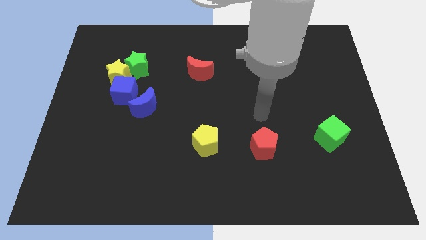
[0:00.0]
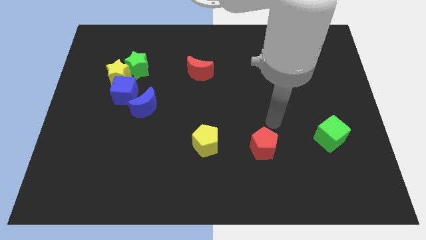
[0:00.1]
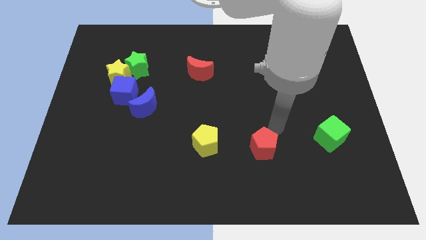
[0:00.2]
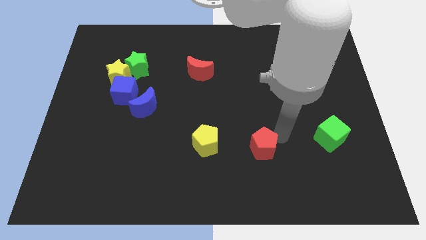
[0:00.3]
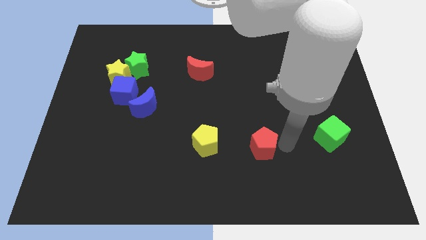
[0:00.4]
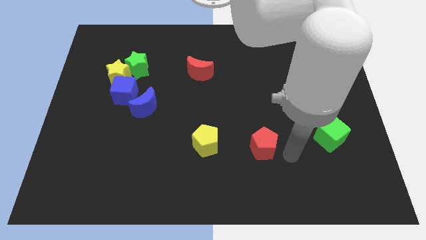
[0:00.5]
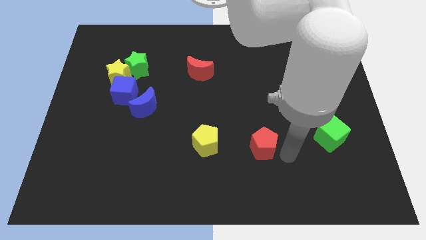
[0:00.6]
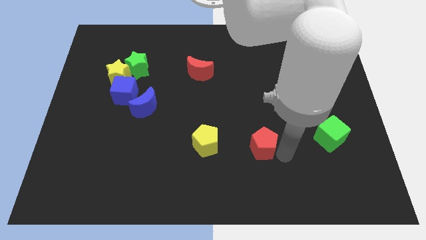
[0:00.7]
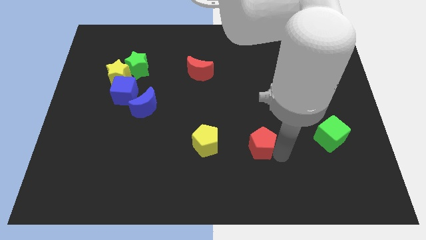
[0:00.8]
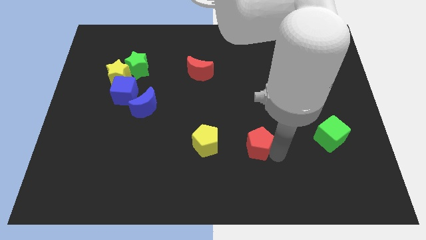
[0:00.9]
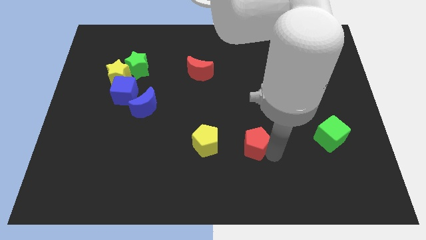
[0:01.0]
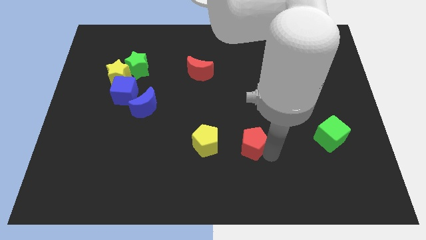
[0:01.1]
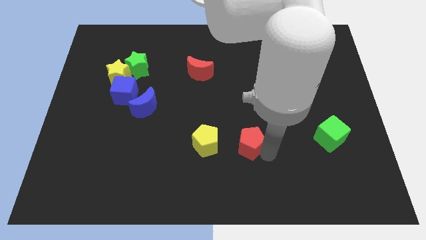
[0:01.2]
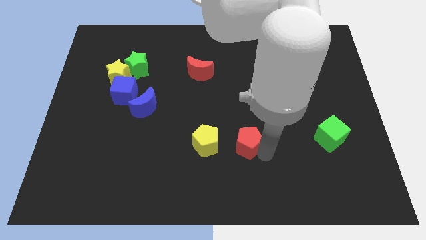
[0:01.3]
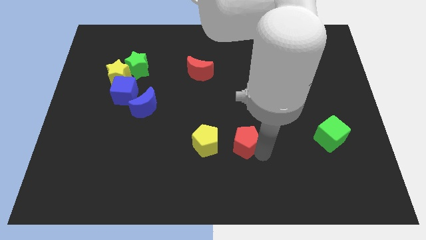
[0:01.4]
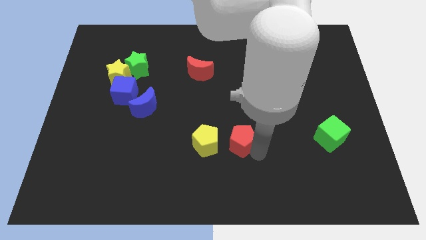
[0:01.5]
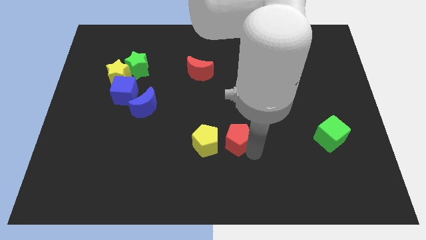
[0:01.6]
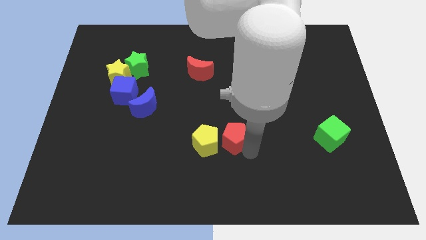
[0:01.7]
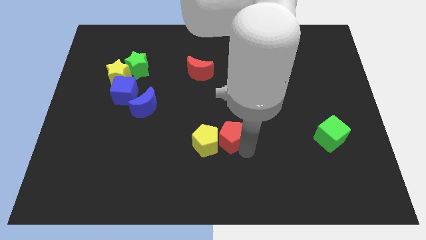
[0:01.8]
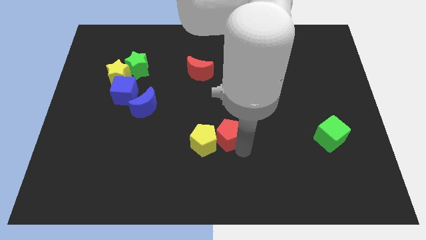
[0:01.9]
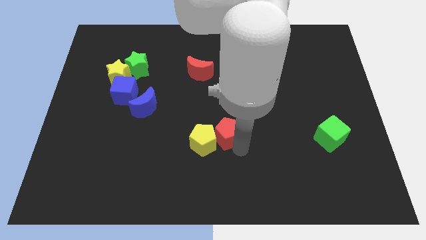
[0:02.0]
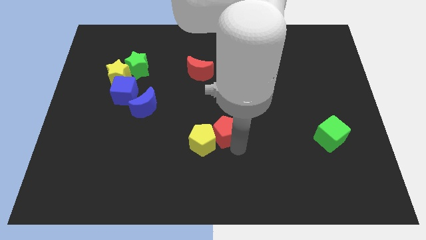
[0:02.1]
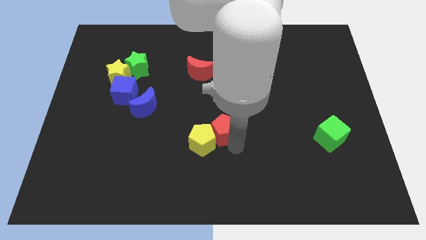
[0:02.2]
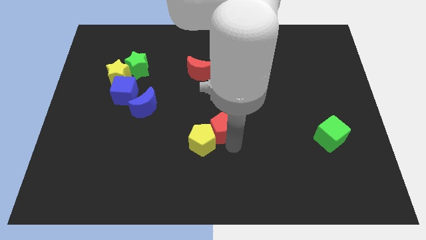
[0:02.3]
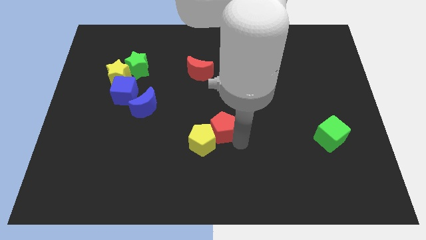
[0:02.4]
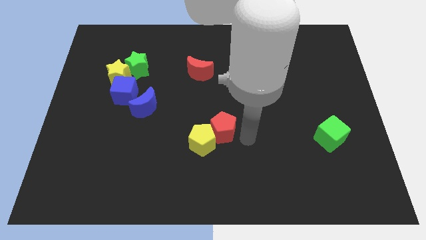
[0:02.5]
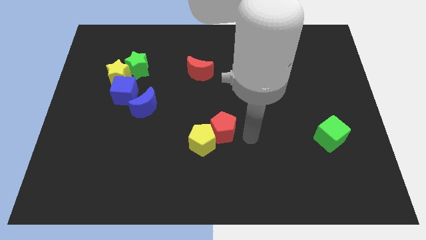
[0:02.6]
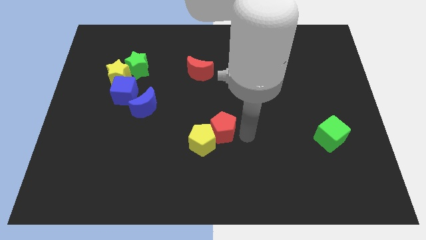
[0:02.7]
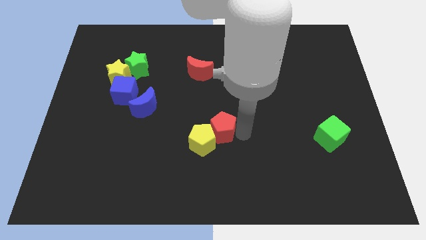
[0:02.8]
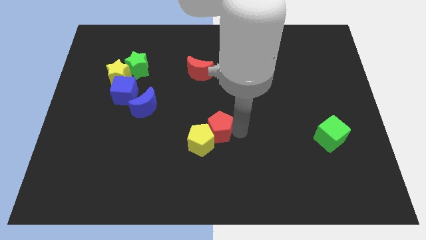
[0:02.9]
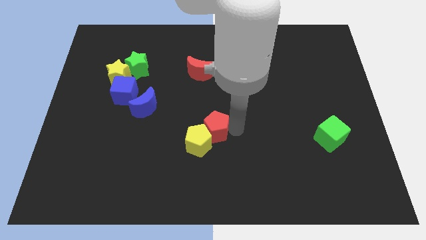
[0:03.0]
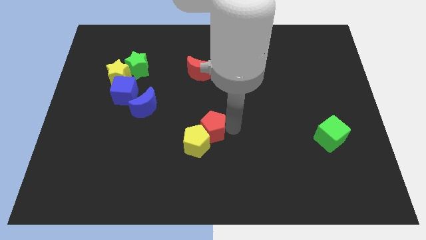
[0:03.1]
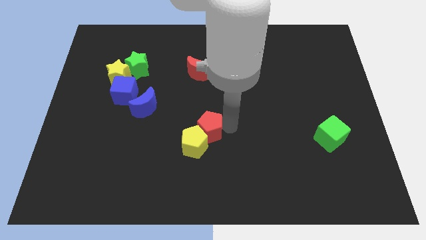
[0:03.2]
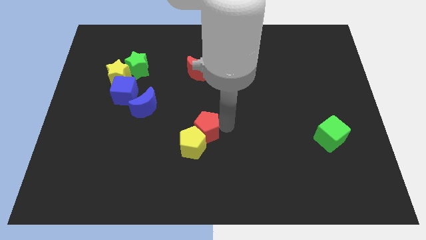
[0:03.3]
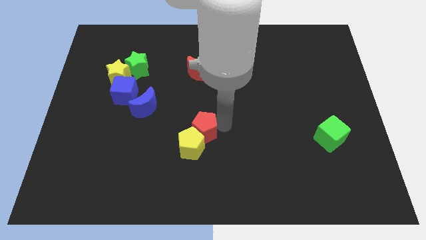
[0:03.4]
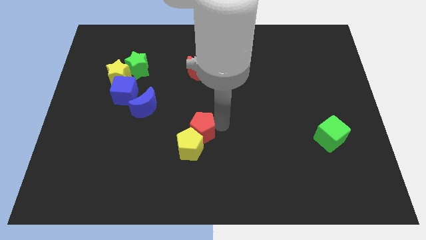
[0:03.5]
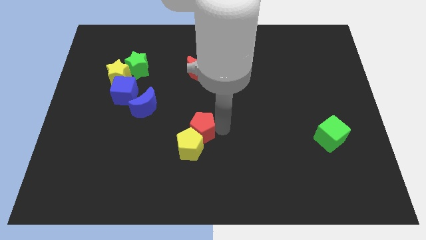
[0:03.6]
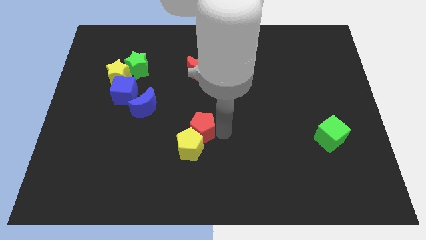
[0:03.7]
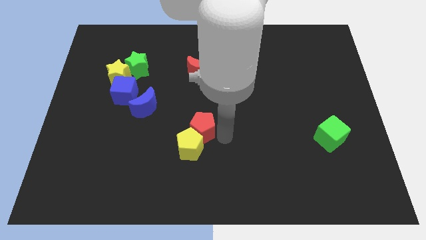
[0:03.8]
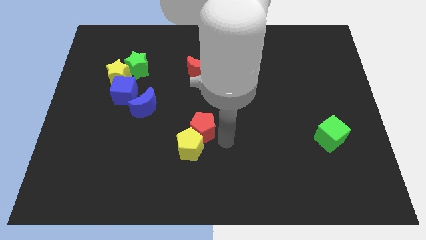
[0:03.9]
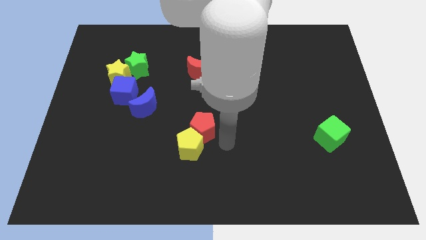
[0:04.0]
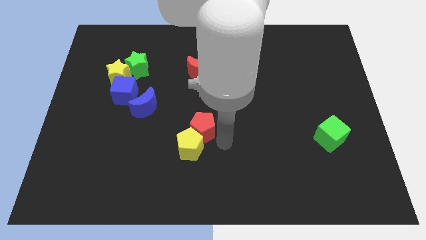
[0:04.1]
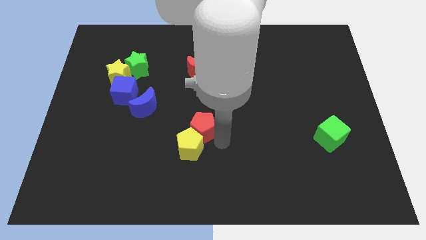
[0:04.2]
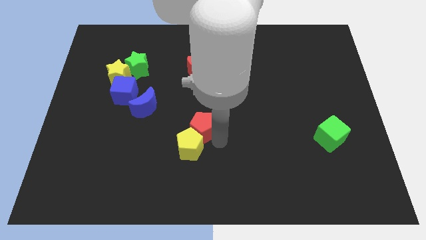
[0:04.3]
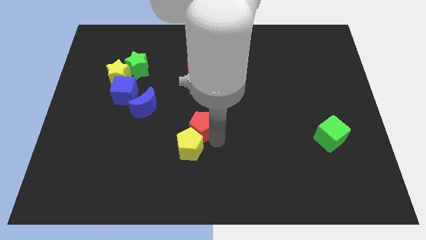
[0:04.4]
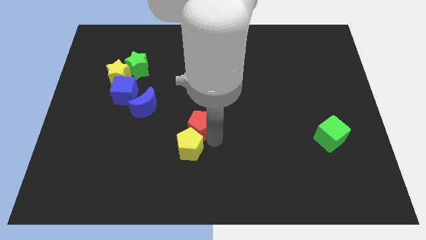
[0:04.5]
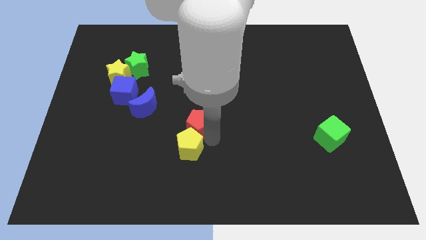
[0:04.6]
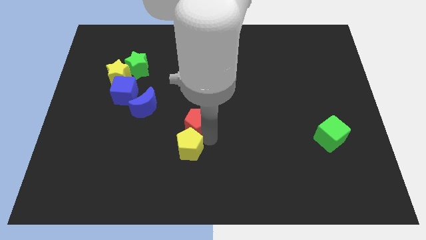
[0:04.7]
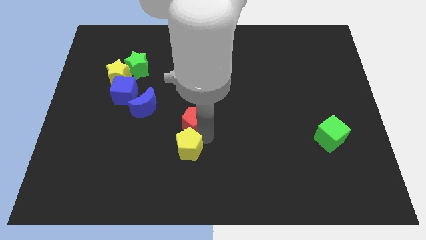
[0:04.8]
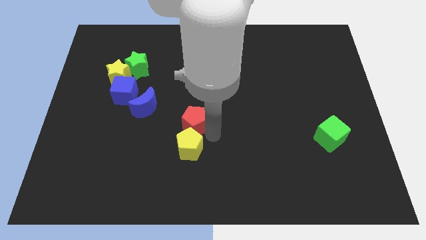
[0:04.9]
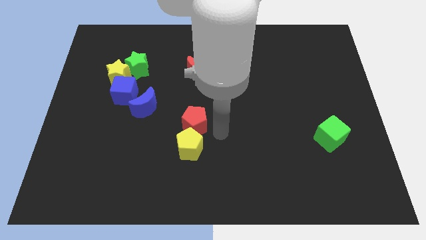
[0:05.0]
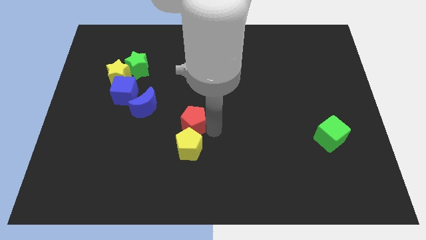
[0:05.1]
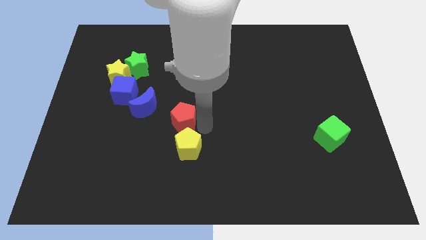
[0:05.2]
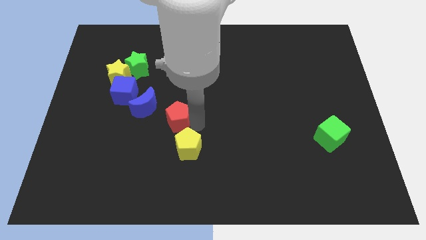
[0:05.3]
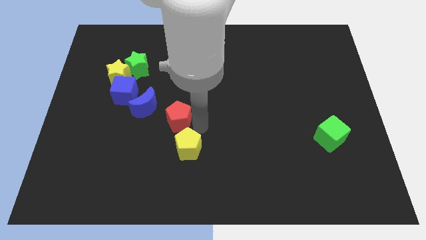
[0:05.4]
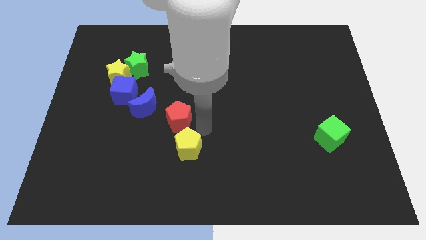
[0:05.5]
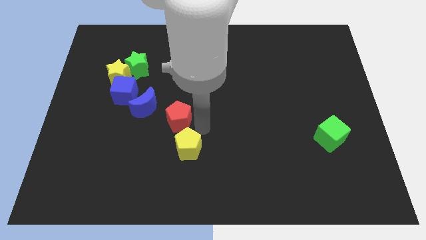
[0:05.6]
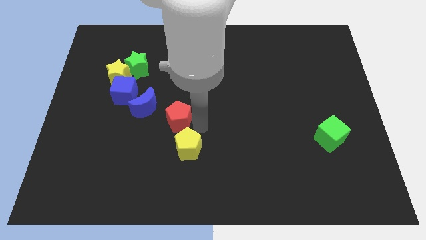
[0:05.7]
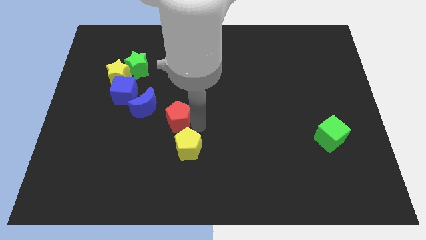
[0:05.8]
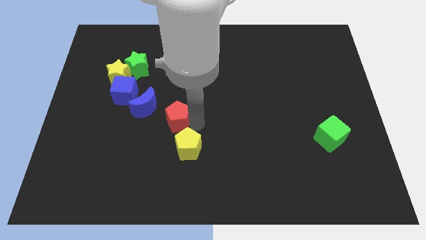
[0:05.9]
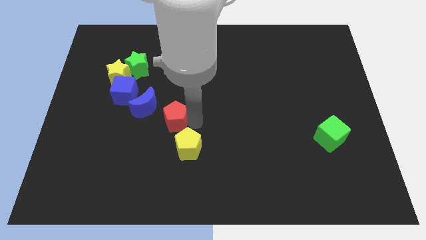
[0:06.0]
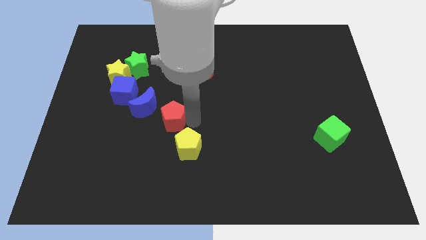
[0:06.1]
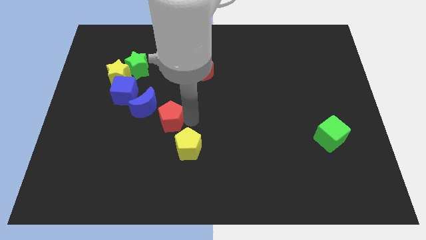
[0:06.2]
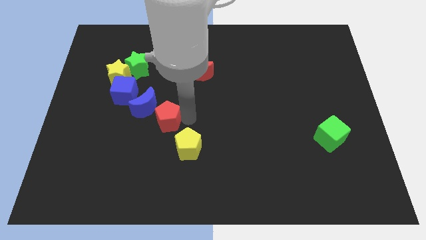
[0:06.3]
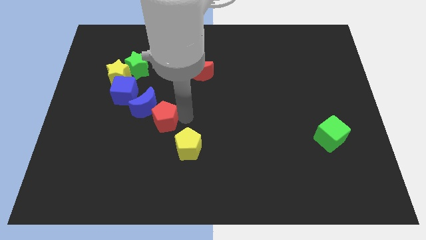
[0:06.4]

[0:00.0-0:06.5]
slide the red pentagon next to the blue moon
